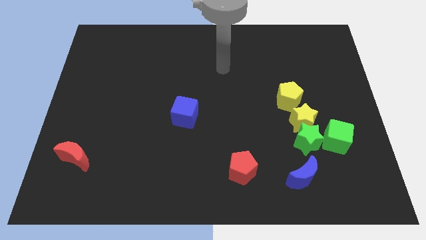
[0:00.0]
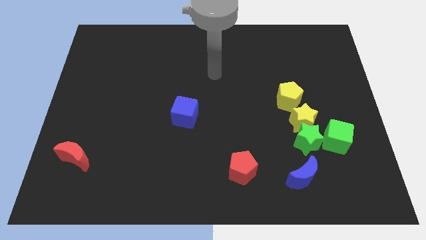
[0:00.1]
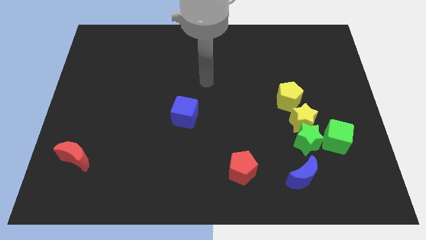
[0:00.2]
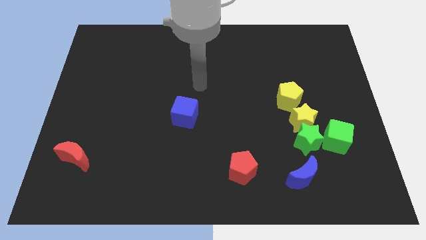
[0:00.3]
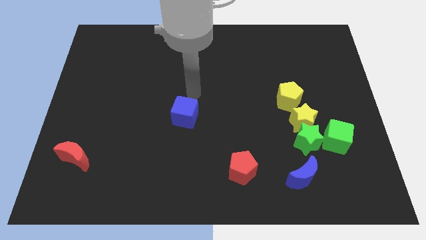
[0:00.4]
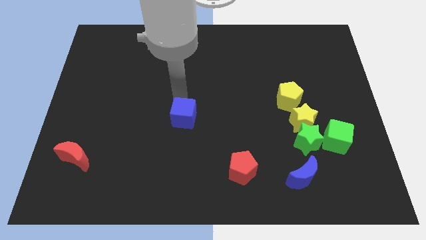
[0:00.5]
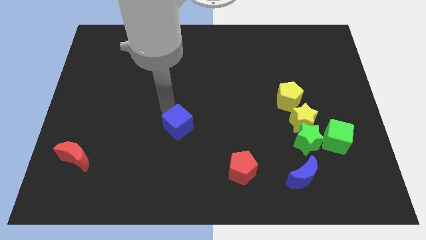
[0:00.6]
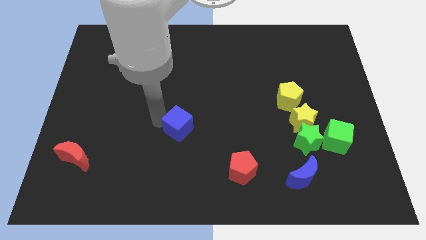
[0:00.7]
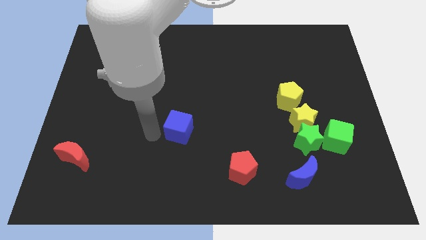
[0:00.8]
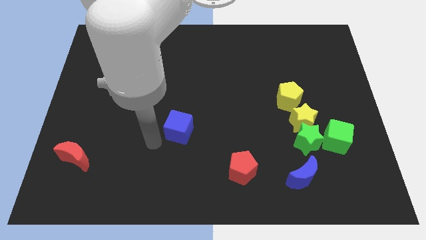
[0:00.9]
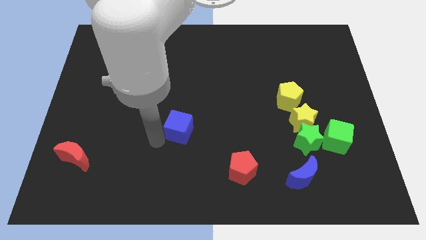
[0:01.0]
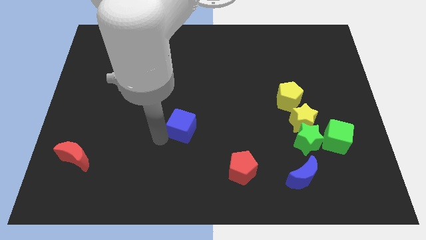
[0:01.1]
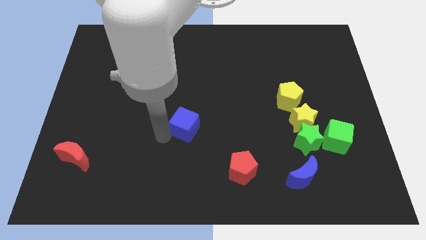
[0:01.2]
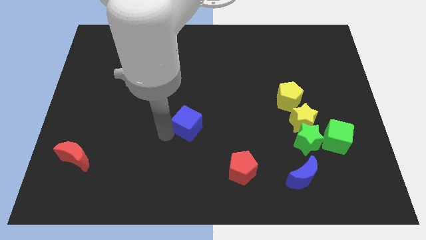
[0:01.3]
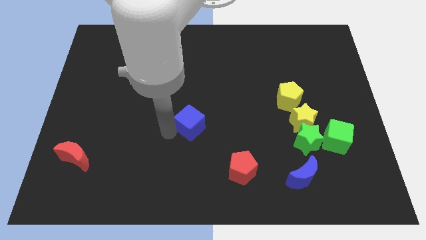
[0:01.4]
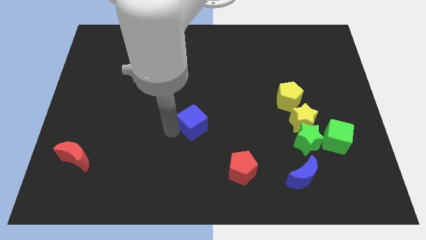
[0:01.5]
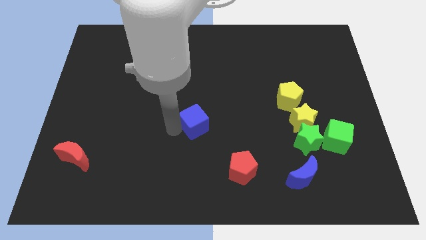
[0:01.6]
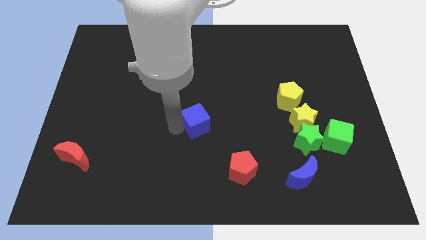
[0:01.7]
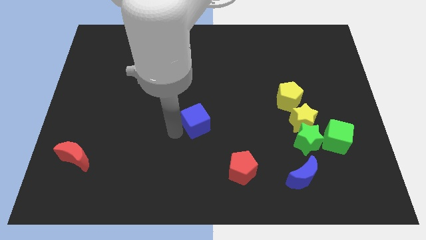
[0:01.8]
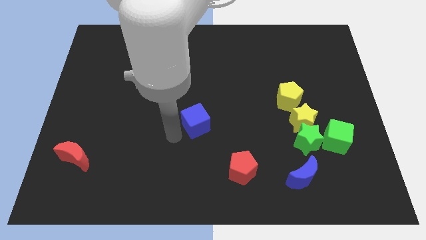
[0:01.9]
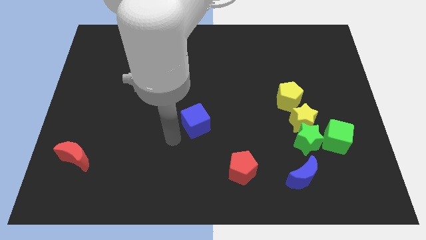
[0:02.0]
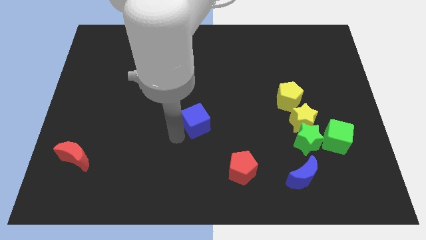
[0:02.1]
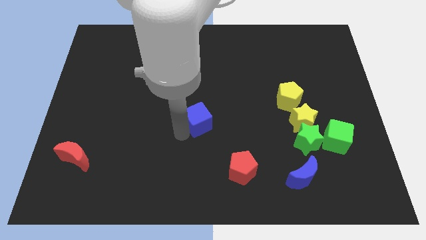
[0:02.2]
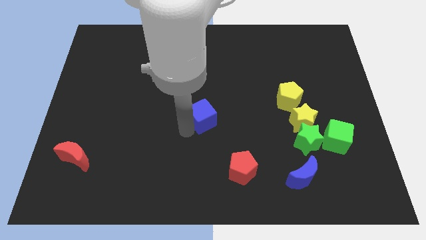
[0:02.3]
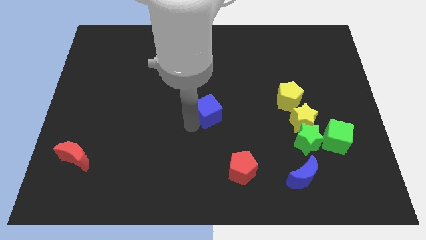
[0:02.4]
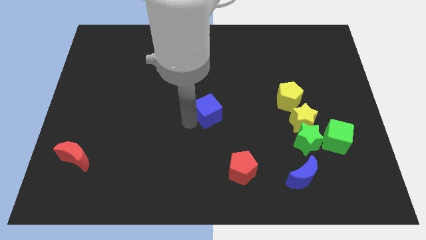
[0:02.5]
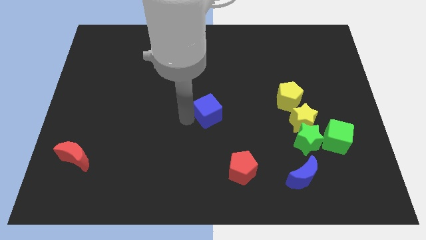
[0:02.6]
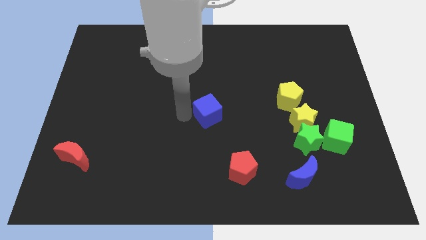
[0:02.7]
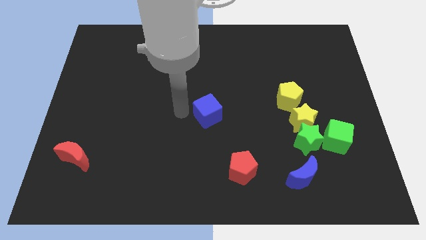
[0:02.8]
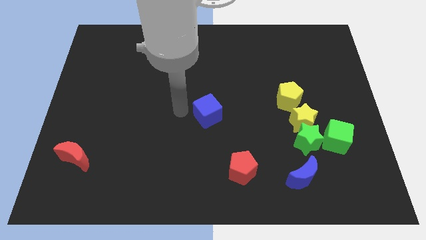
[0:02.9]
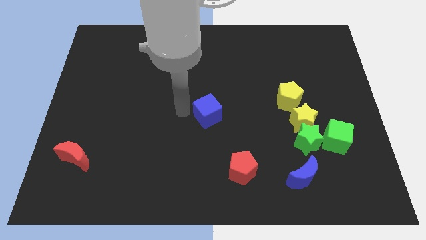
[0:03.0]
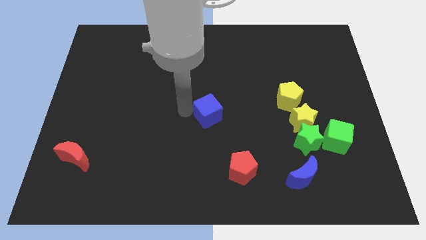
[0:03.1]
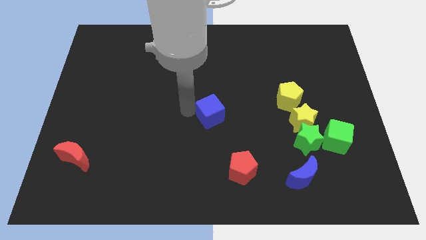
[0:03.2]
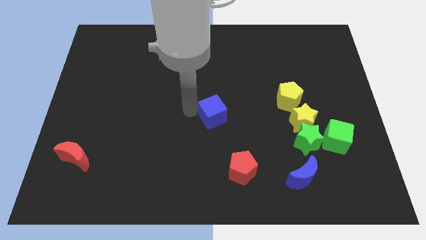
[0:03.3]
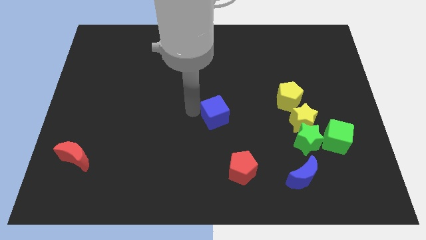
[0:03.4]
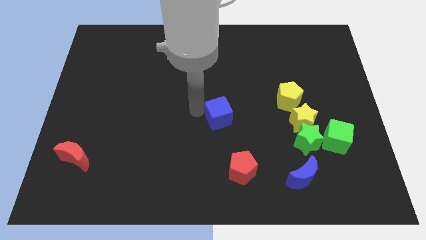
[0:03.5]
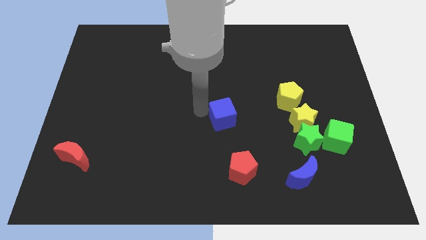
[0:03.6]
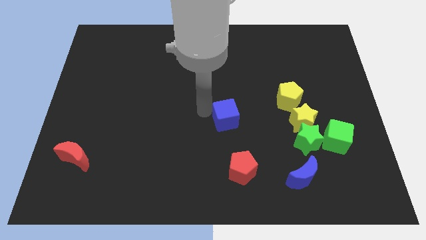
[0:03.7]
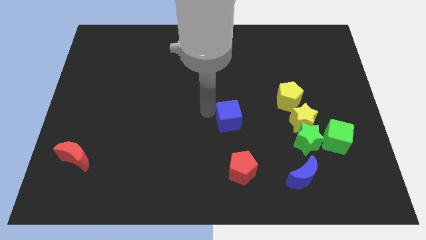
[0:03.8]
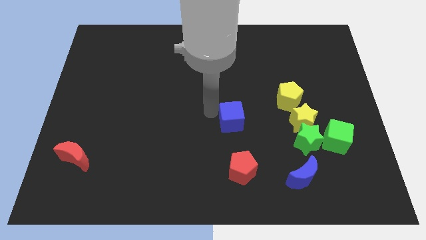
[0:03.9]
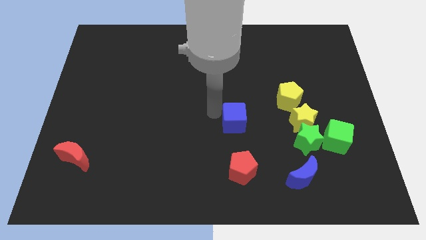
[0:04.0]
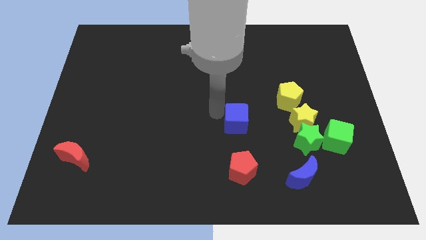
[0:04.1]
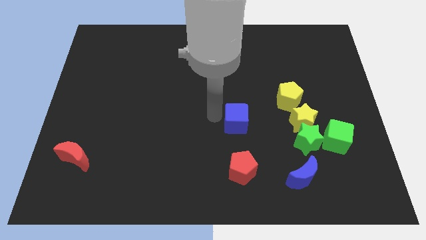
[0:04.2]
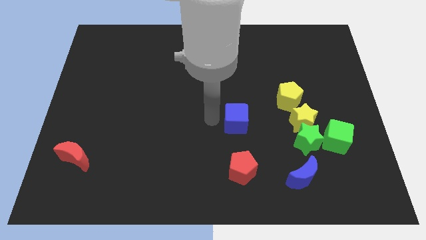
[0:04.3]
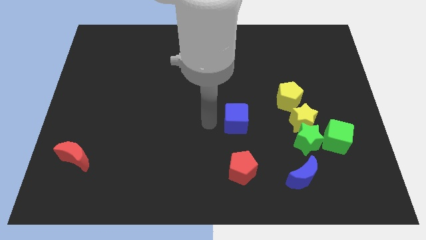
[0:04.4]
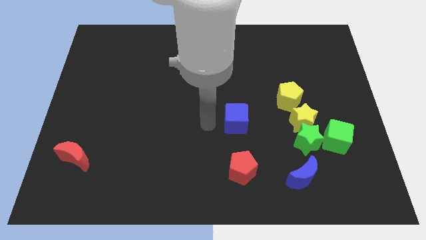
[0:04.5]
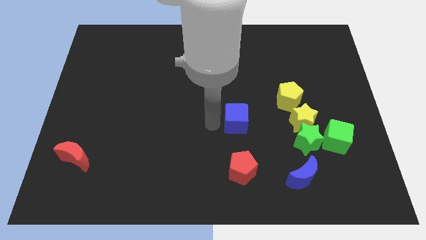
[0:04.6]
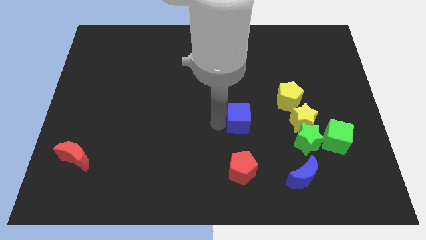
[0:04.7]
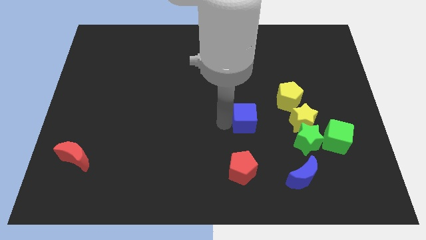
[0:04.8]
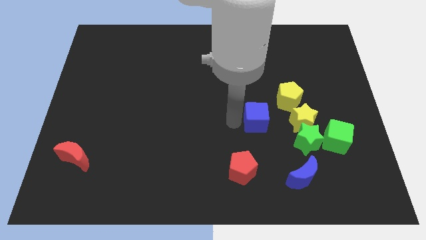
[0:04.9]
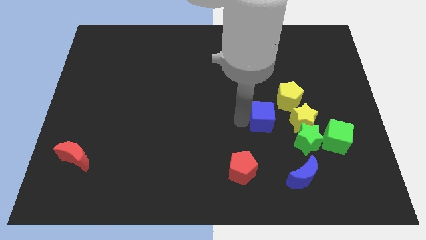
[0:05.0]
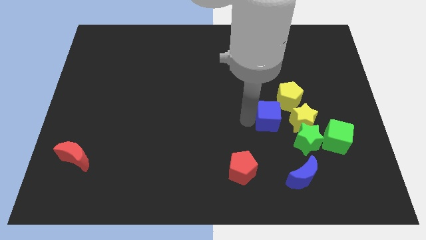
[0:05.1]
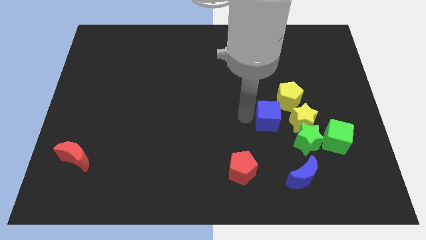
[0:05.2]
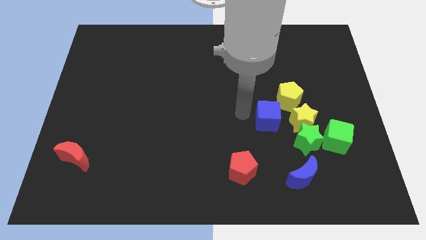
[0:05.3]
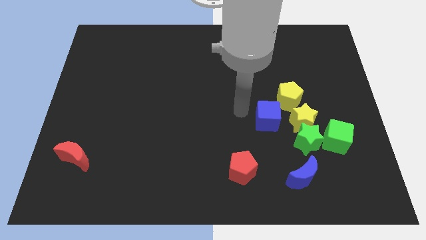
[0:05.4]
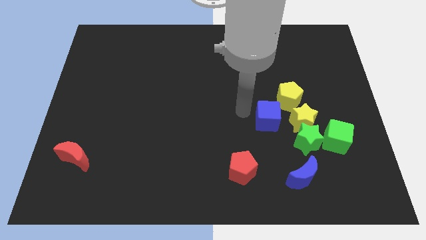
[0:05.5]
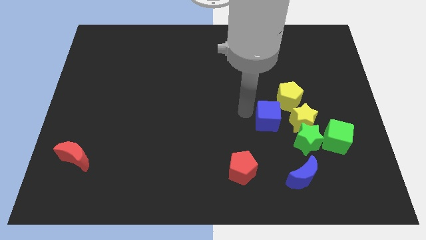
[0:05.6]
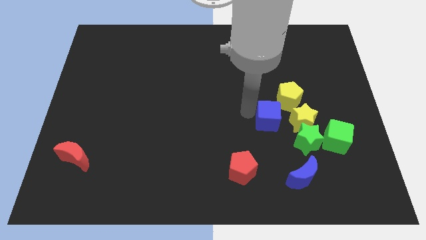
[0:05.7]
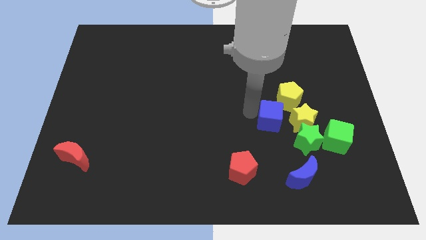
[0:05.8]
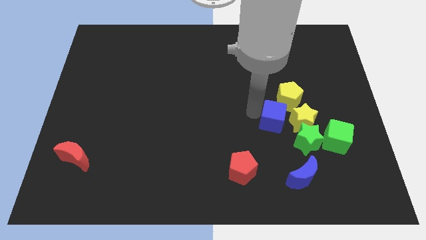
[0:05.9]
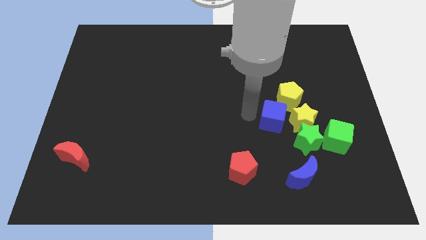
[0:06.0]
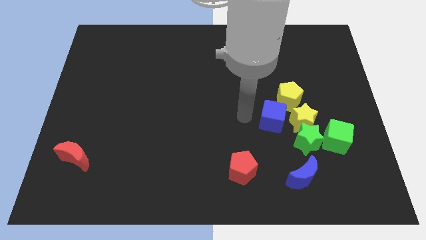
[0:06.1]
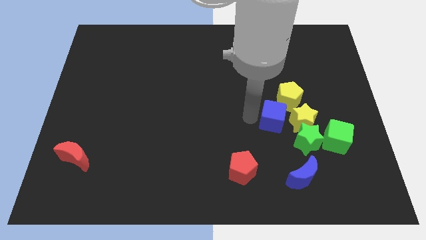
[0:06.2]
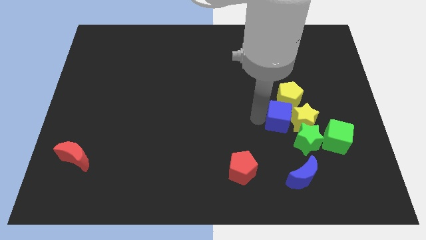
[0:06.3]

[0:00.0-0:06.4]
push the blue cube close to the yellow star
